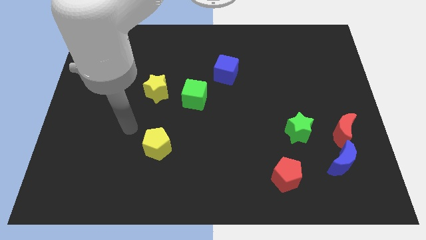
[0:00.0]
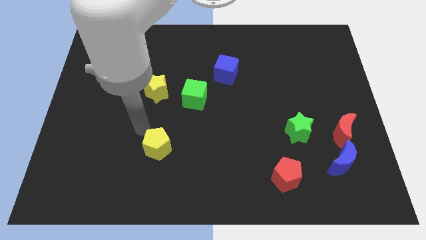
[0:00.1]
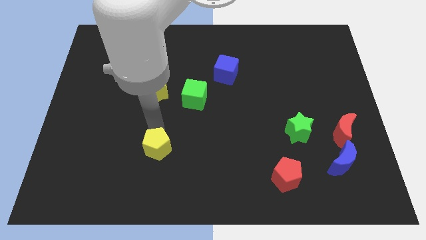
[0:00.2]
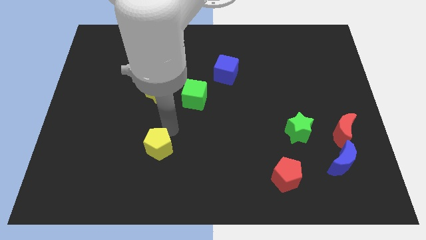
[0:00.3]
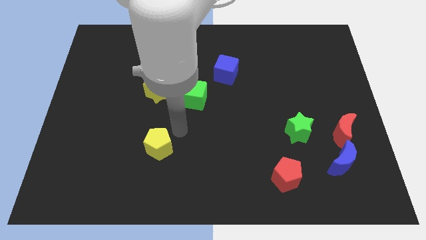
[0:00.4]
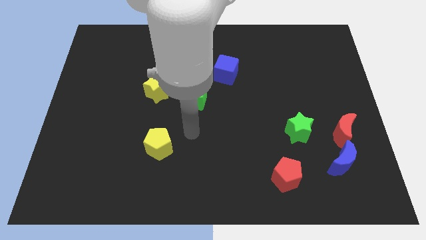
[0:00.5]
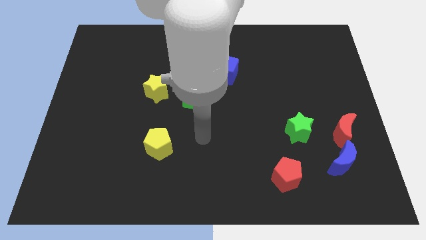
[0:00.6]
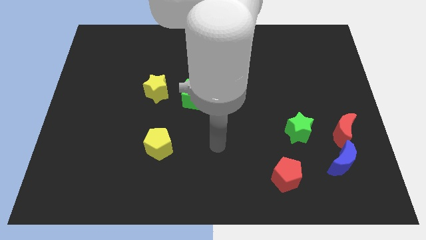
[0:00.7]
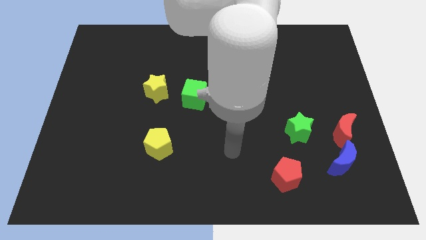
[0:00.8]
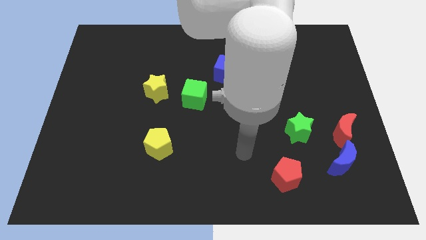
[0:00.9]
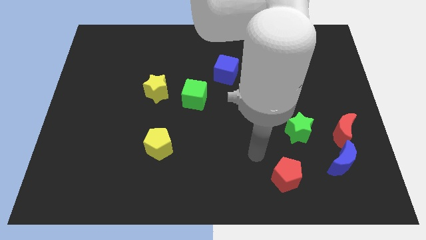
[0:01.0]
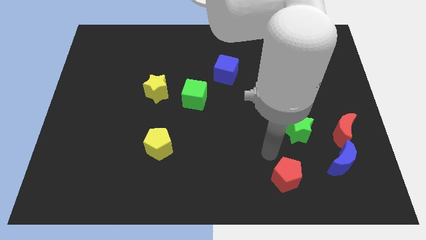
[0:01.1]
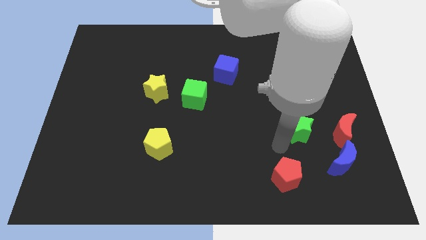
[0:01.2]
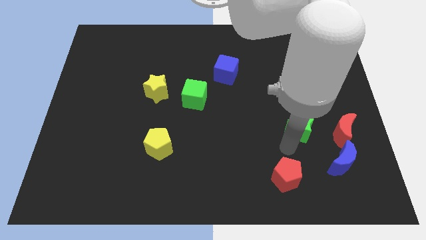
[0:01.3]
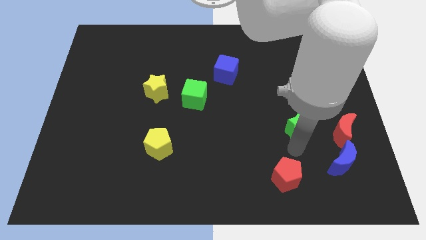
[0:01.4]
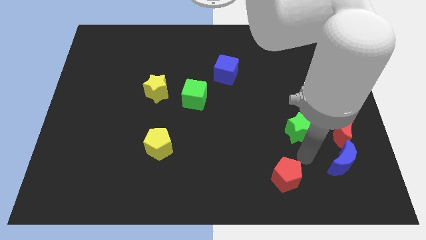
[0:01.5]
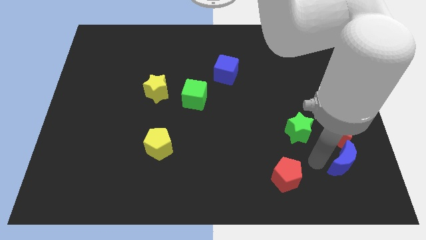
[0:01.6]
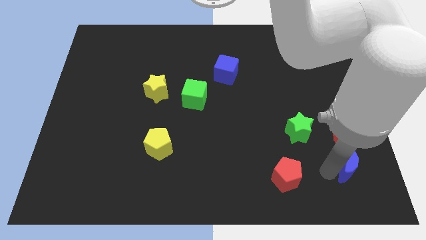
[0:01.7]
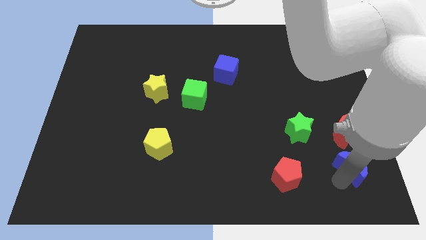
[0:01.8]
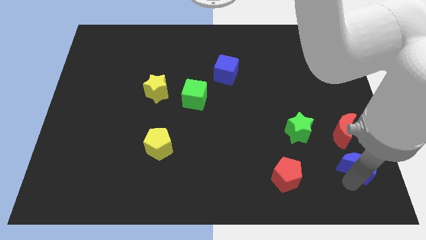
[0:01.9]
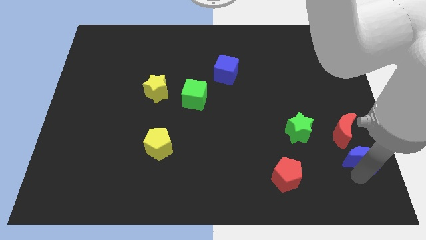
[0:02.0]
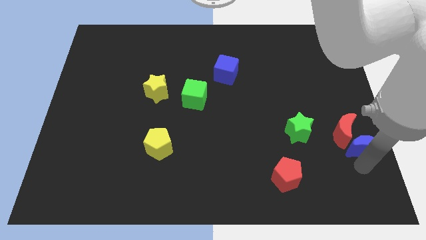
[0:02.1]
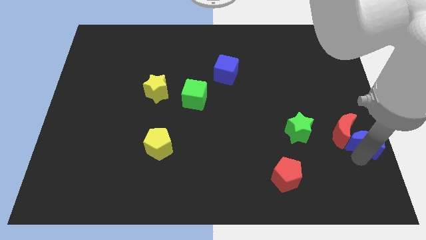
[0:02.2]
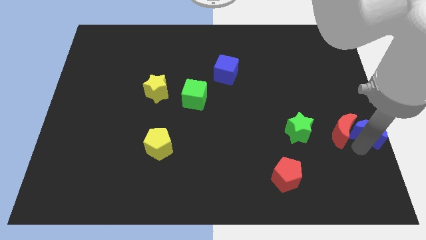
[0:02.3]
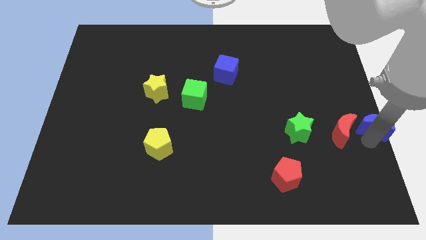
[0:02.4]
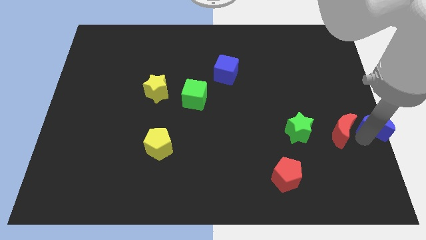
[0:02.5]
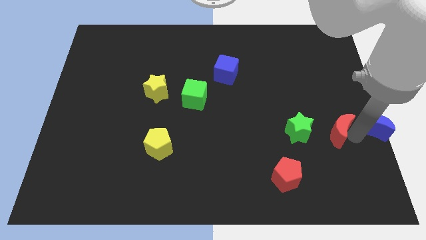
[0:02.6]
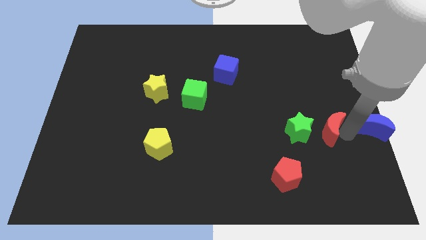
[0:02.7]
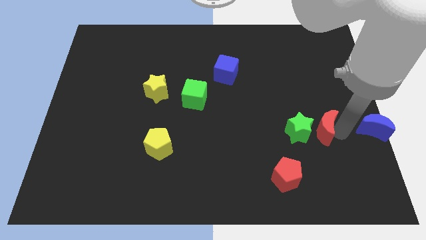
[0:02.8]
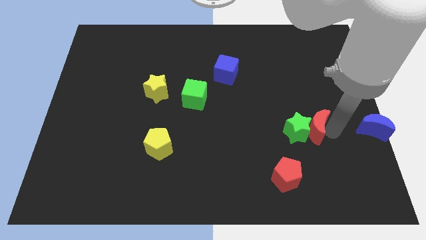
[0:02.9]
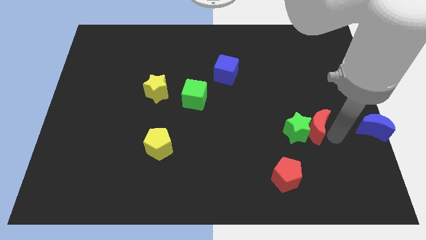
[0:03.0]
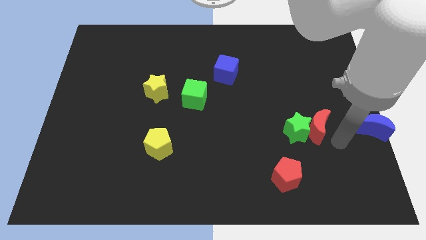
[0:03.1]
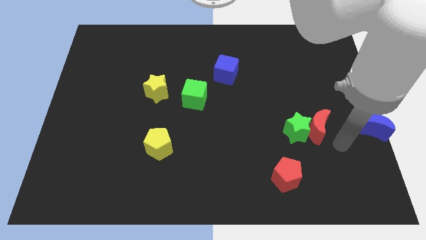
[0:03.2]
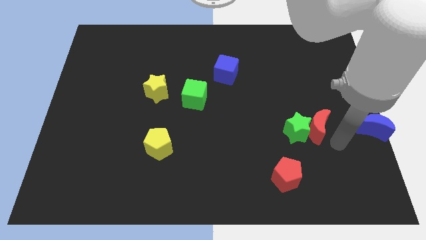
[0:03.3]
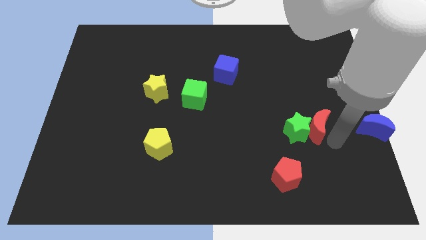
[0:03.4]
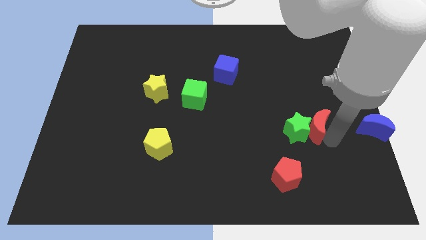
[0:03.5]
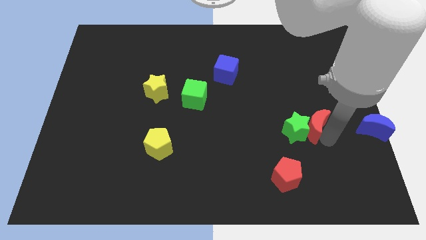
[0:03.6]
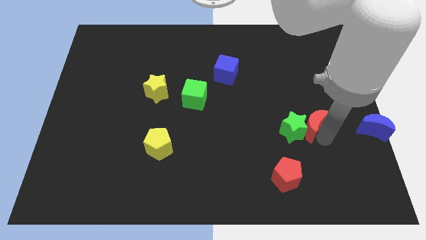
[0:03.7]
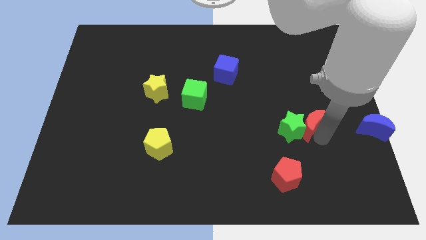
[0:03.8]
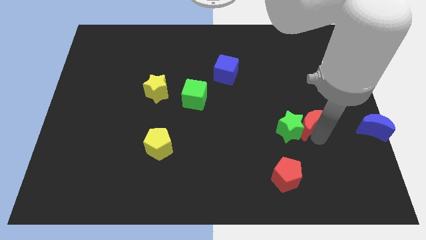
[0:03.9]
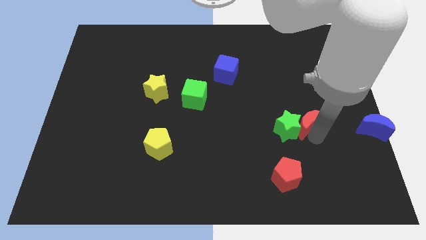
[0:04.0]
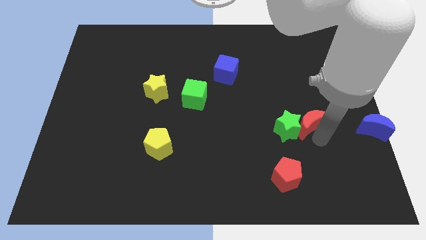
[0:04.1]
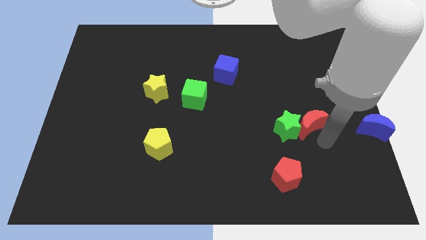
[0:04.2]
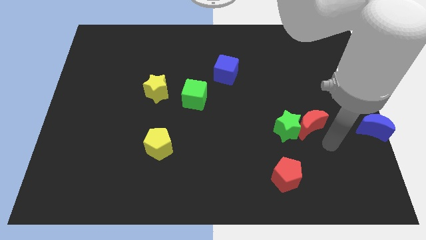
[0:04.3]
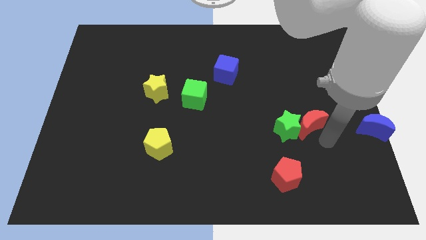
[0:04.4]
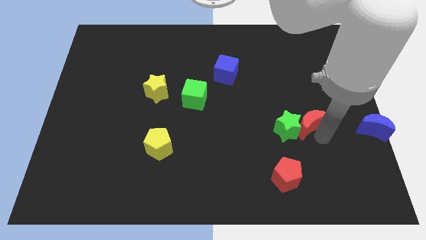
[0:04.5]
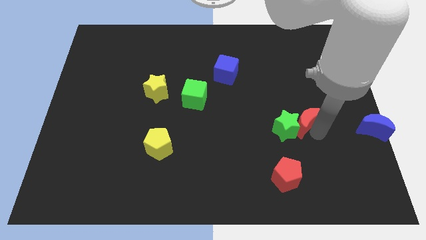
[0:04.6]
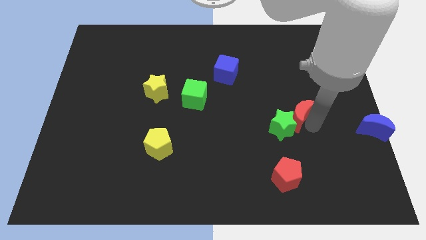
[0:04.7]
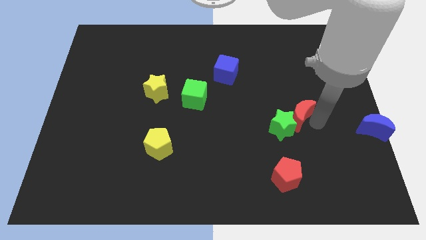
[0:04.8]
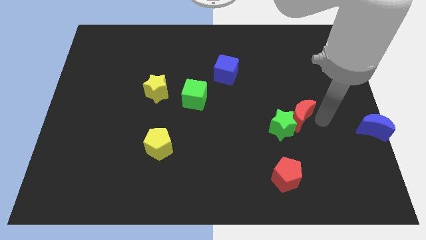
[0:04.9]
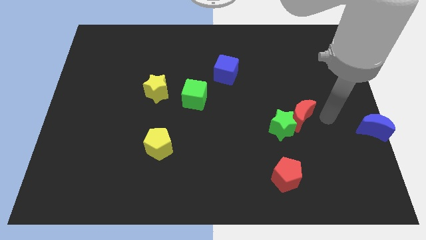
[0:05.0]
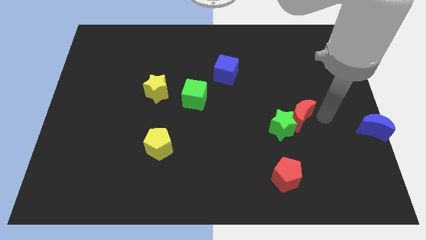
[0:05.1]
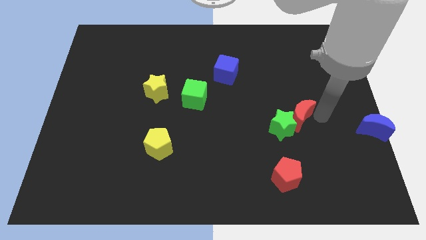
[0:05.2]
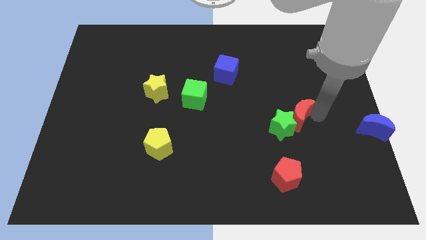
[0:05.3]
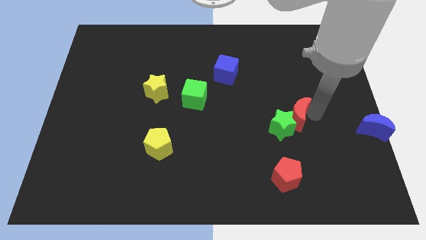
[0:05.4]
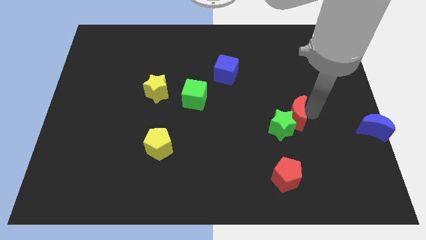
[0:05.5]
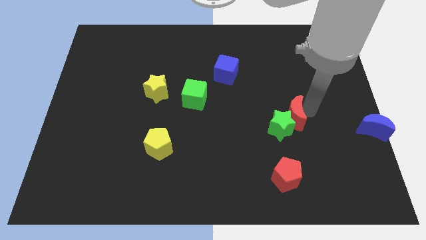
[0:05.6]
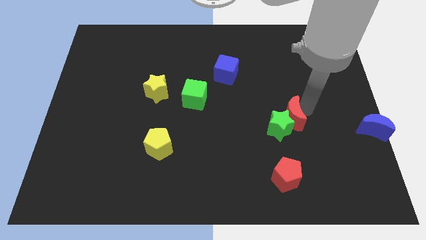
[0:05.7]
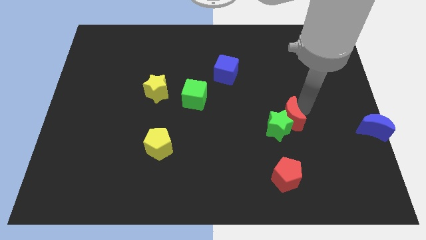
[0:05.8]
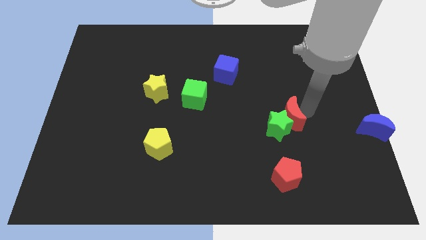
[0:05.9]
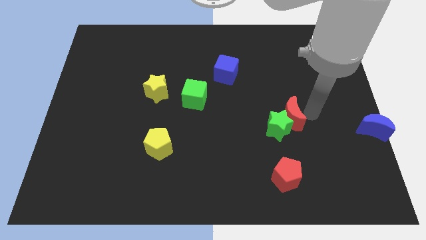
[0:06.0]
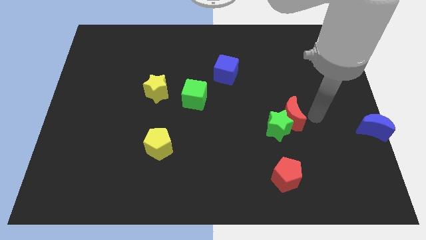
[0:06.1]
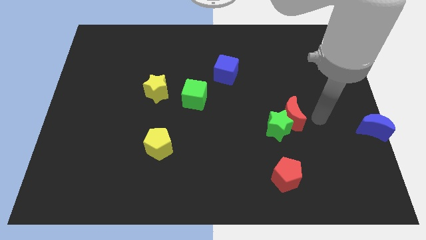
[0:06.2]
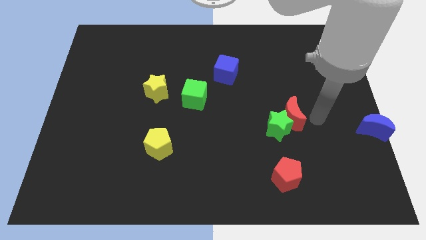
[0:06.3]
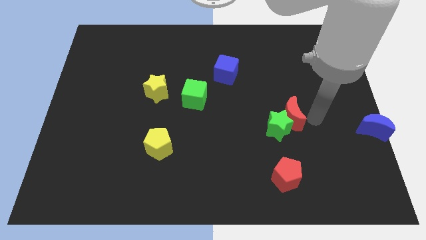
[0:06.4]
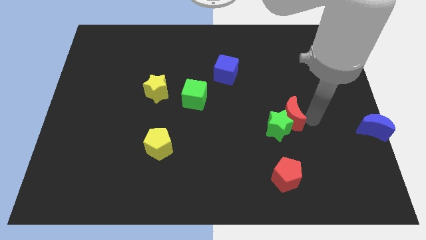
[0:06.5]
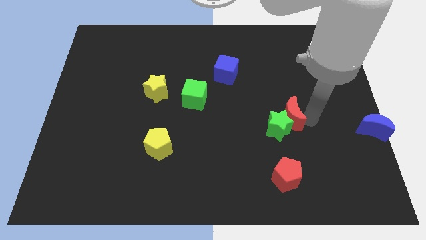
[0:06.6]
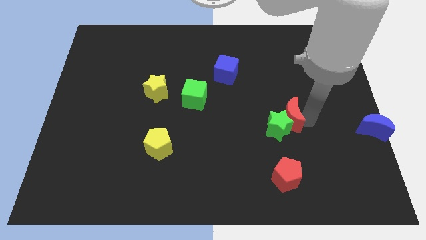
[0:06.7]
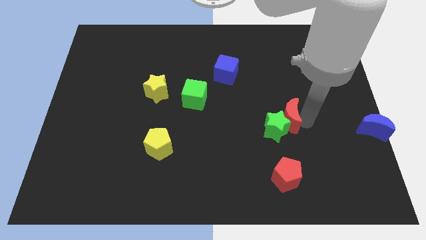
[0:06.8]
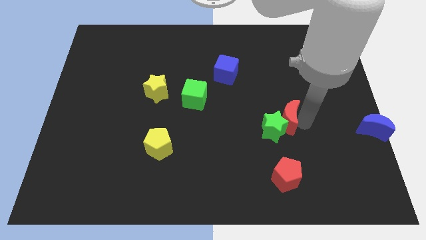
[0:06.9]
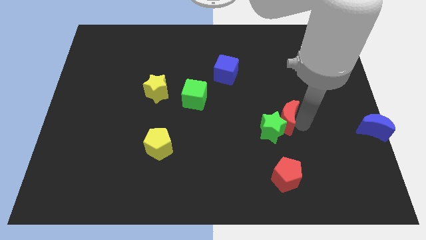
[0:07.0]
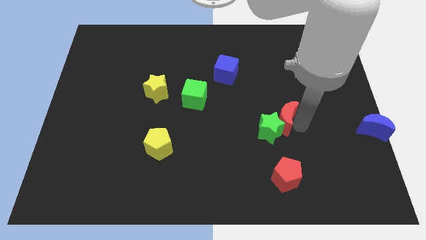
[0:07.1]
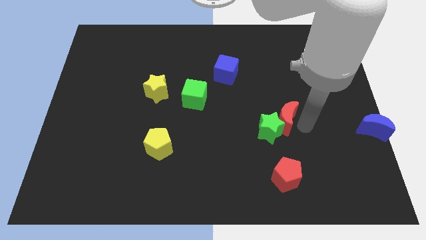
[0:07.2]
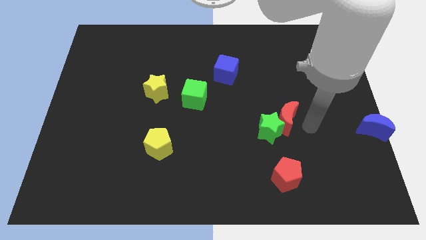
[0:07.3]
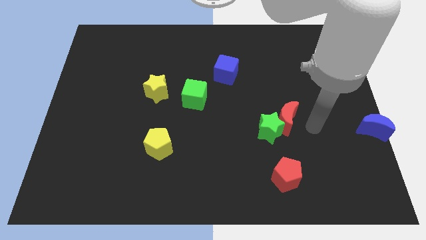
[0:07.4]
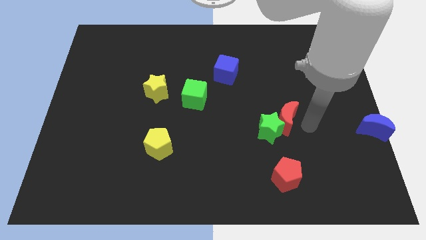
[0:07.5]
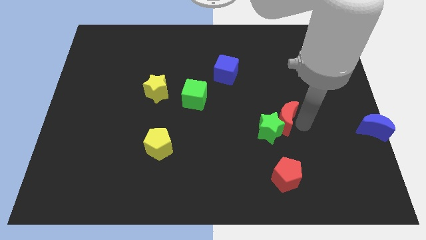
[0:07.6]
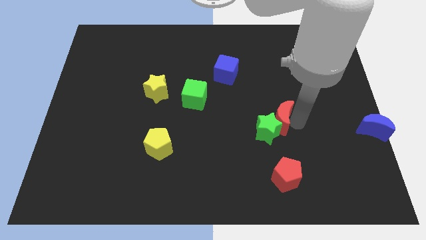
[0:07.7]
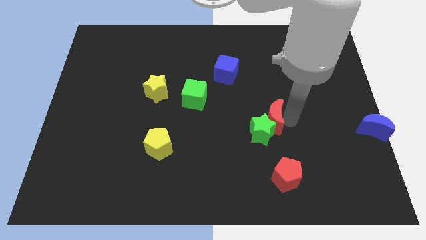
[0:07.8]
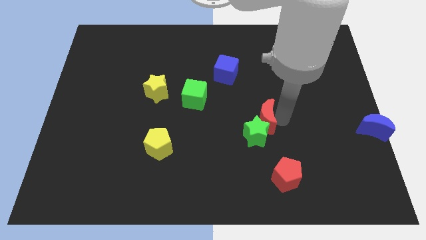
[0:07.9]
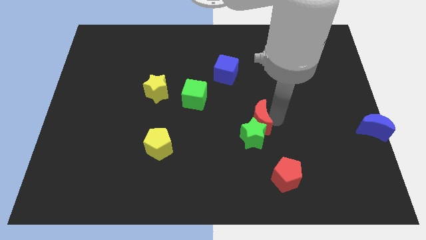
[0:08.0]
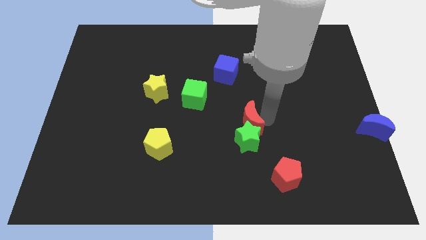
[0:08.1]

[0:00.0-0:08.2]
push the red moon to the left
